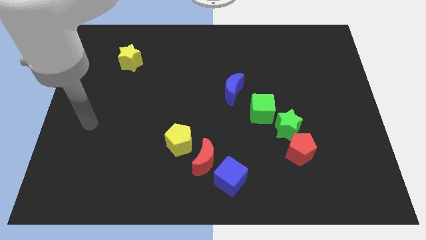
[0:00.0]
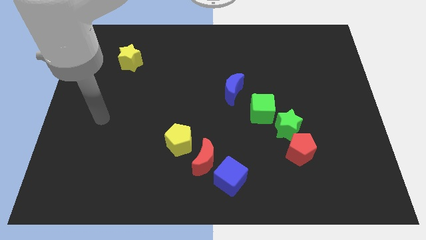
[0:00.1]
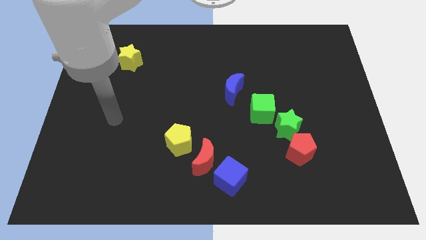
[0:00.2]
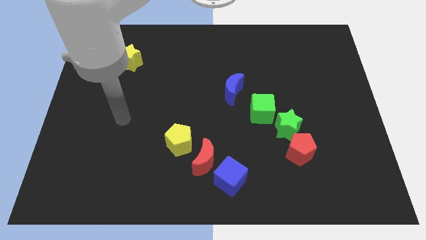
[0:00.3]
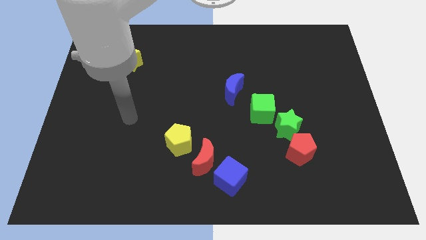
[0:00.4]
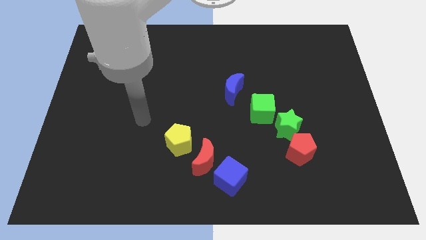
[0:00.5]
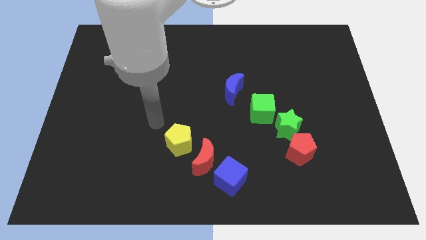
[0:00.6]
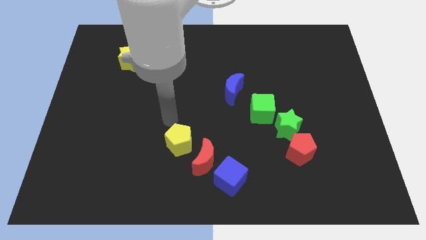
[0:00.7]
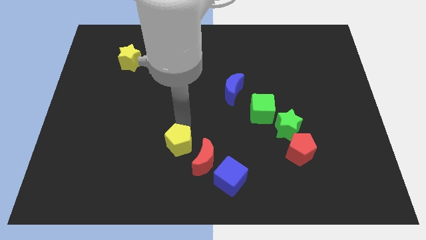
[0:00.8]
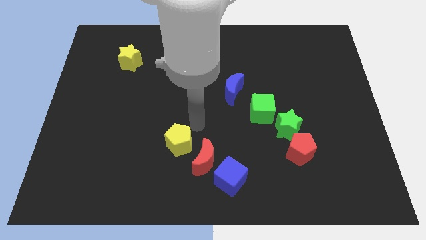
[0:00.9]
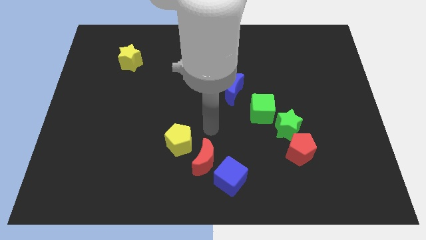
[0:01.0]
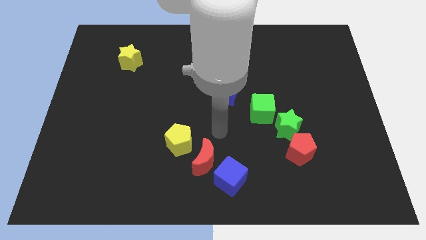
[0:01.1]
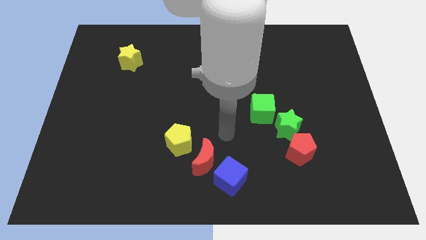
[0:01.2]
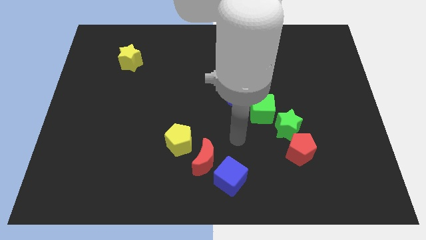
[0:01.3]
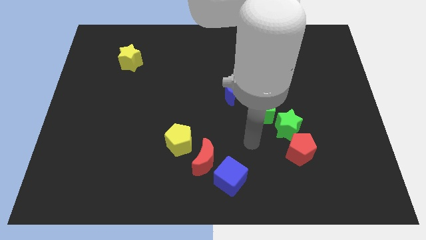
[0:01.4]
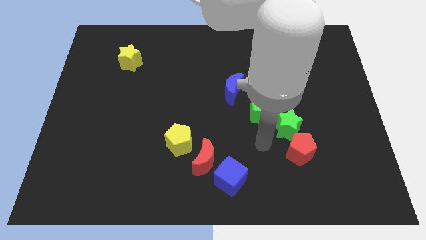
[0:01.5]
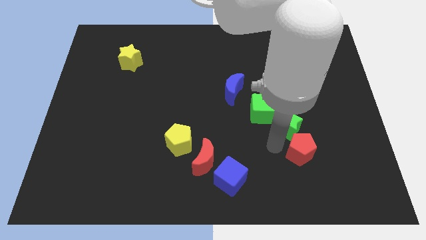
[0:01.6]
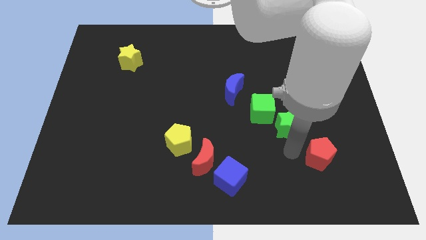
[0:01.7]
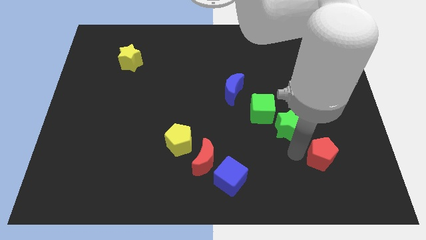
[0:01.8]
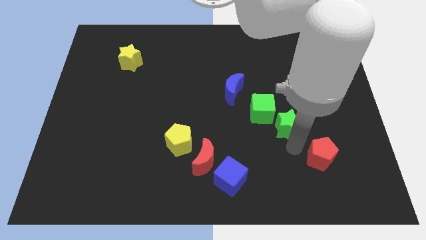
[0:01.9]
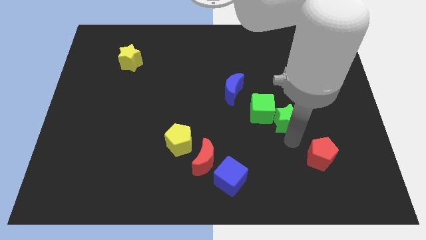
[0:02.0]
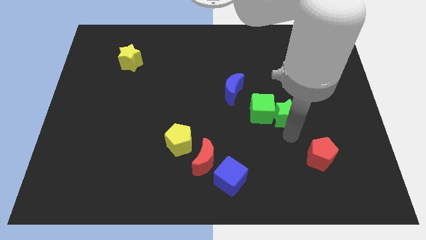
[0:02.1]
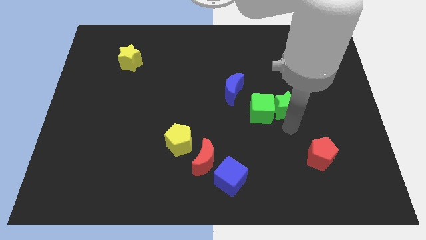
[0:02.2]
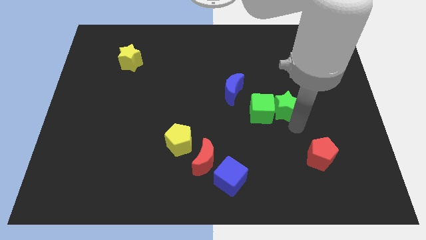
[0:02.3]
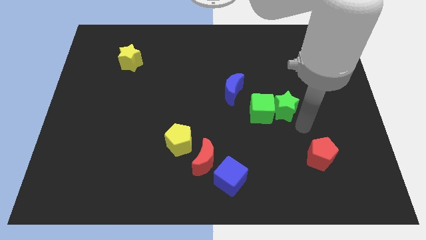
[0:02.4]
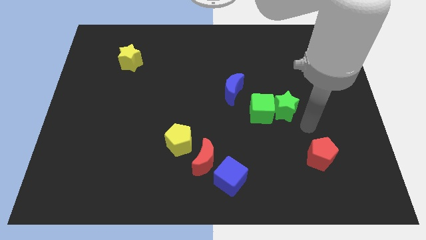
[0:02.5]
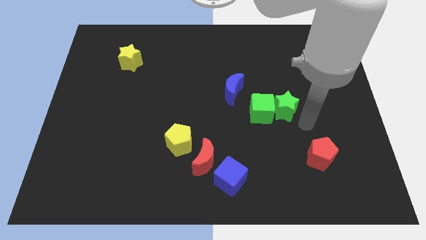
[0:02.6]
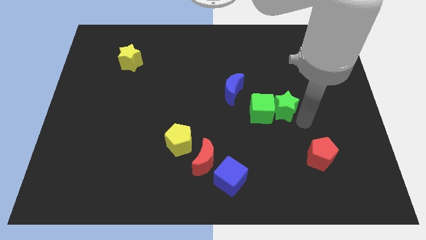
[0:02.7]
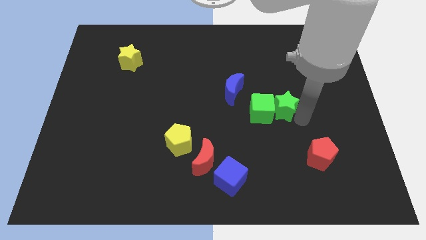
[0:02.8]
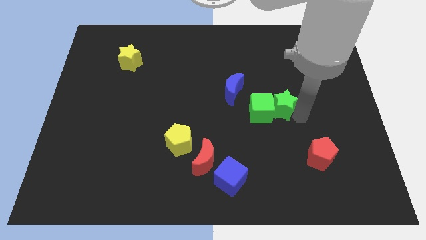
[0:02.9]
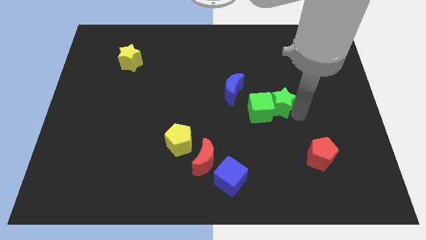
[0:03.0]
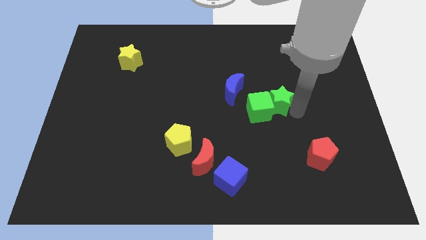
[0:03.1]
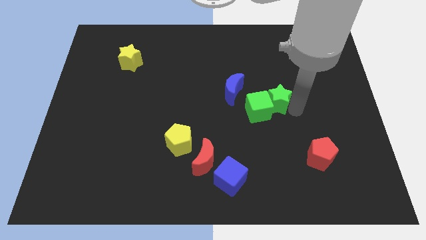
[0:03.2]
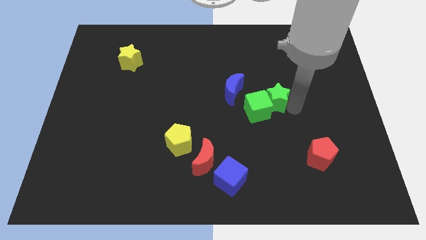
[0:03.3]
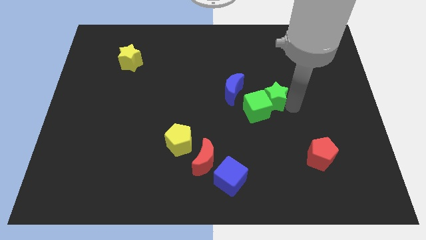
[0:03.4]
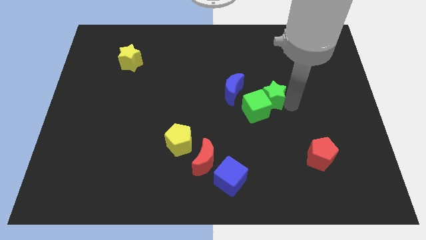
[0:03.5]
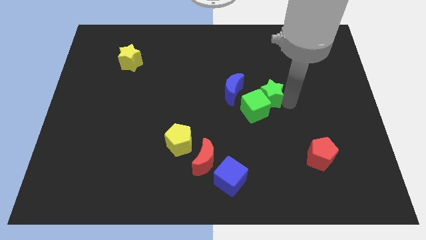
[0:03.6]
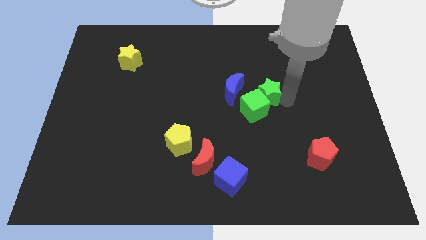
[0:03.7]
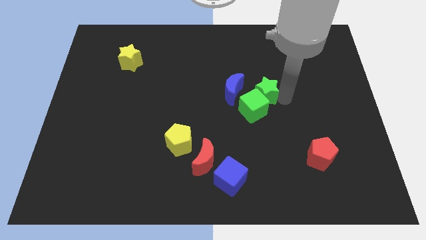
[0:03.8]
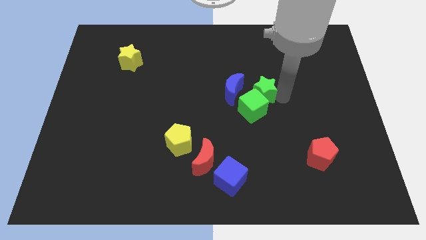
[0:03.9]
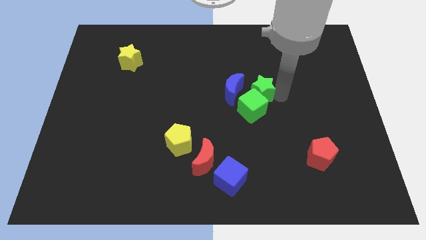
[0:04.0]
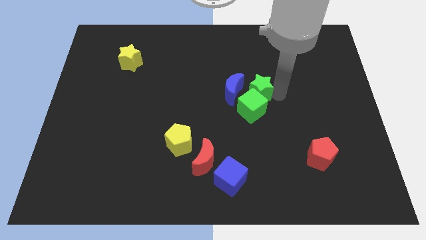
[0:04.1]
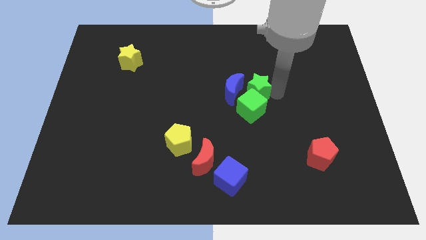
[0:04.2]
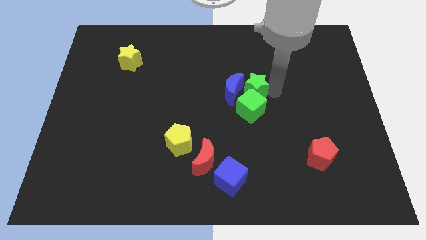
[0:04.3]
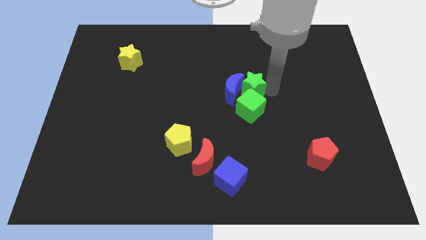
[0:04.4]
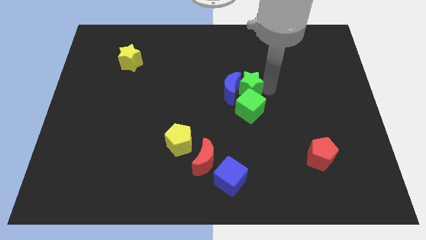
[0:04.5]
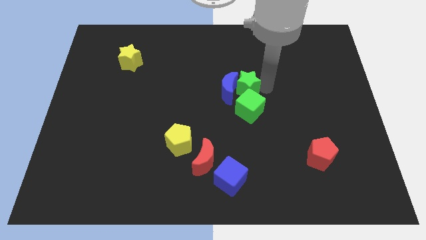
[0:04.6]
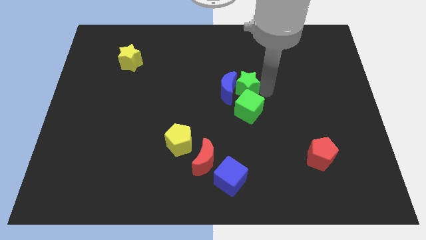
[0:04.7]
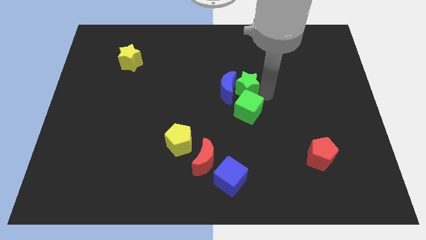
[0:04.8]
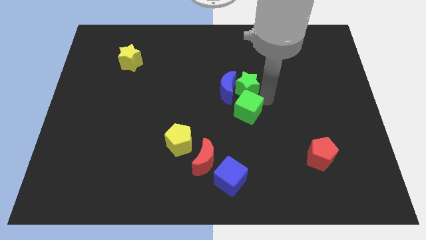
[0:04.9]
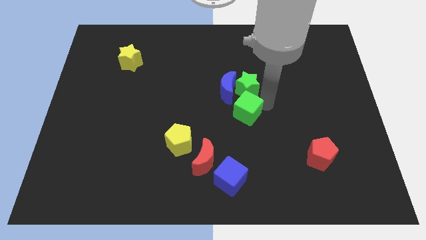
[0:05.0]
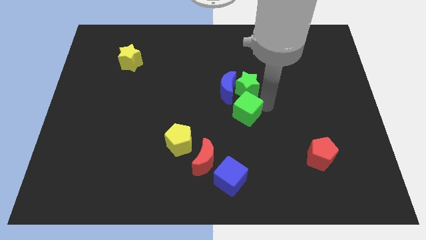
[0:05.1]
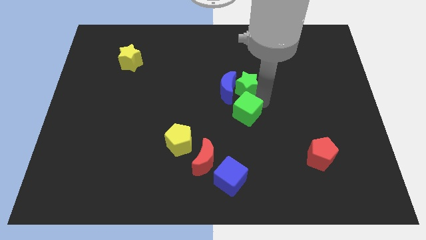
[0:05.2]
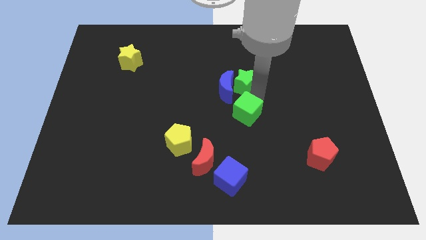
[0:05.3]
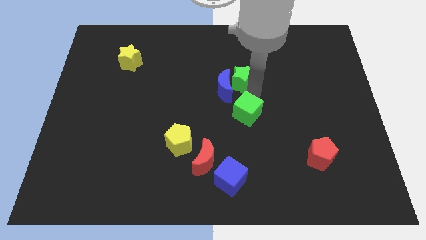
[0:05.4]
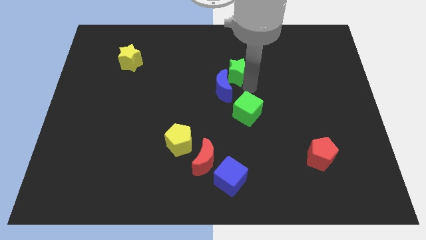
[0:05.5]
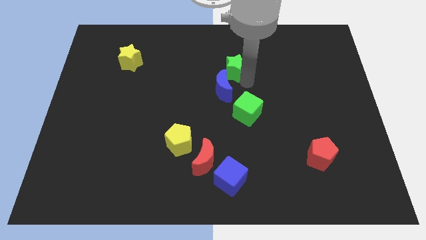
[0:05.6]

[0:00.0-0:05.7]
push the green star up and left diagonally

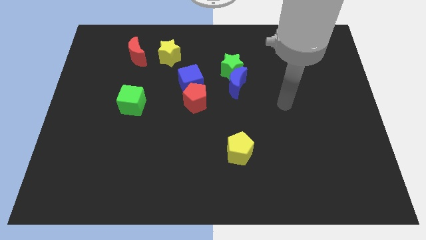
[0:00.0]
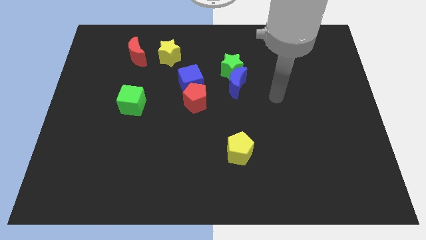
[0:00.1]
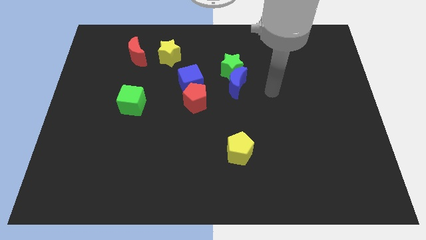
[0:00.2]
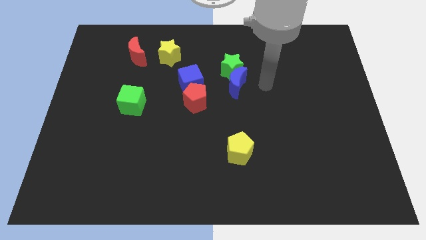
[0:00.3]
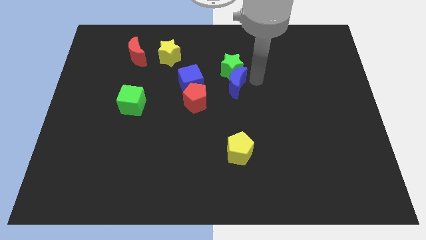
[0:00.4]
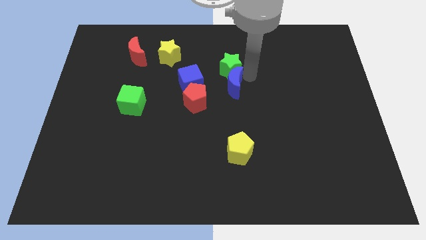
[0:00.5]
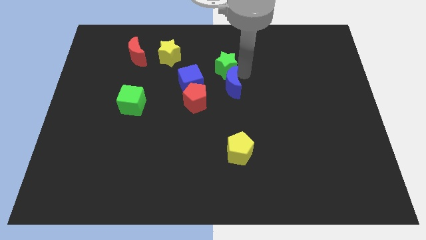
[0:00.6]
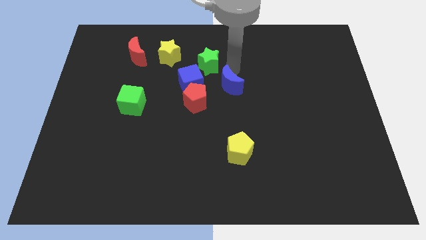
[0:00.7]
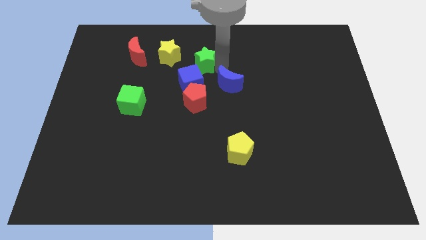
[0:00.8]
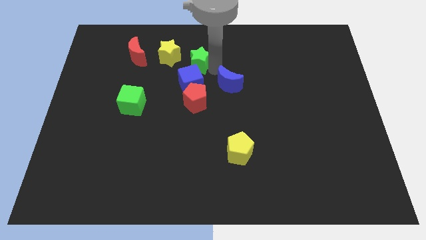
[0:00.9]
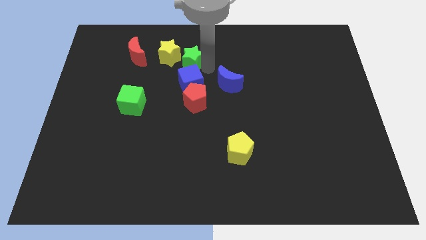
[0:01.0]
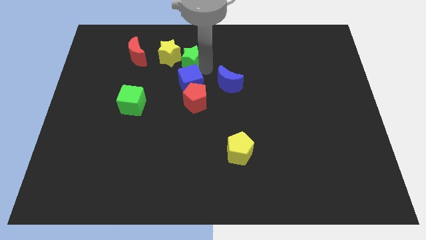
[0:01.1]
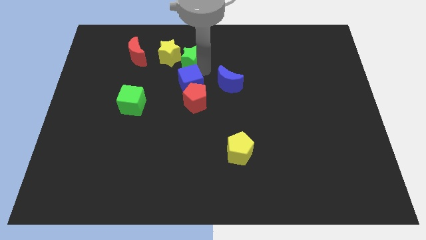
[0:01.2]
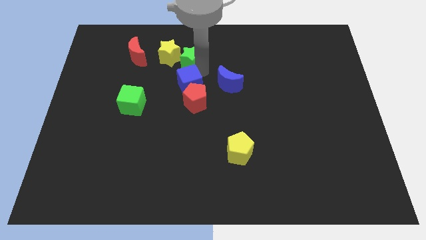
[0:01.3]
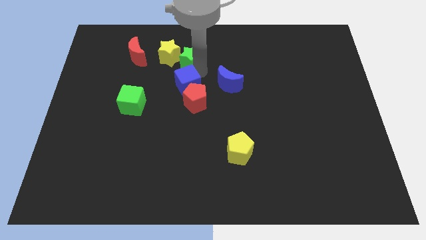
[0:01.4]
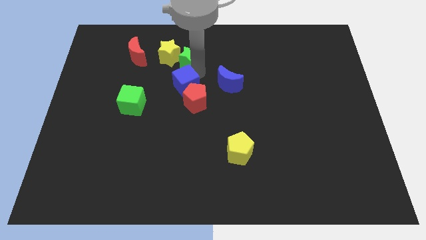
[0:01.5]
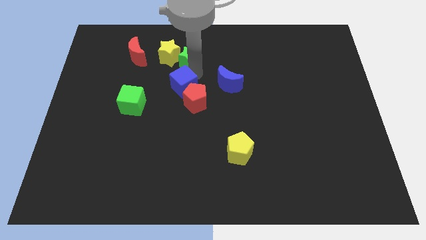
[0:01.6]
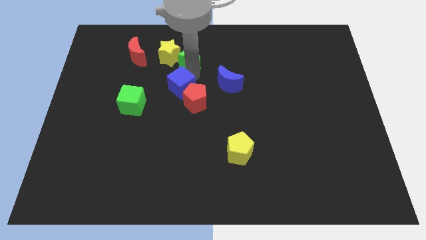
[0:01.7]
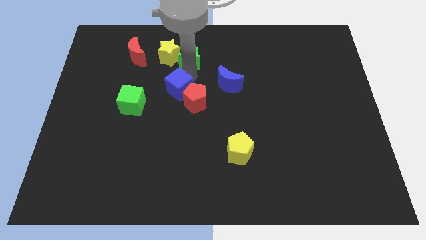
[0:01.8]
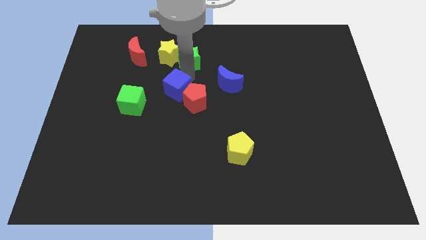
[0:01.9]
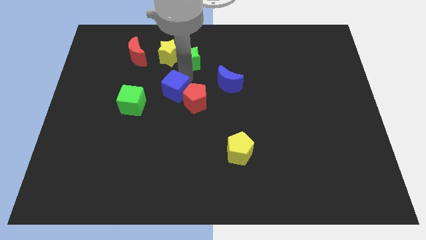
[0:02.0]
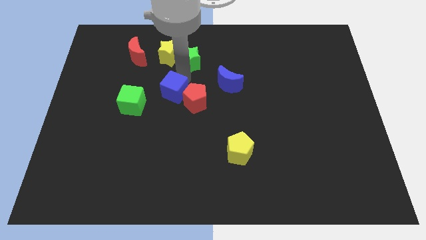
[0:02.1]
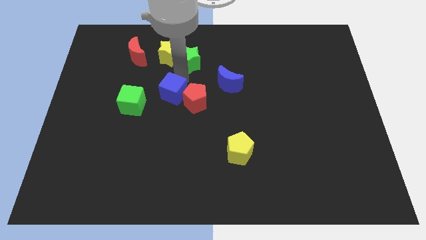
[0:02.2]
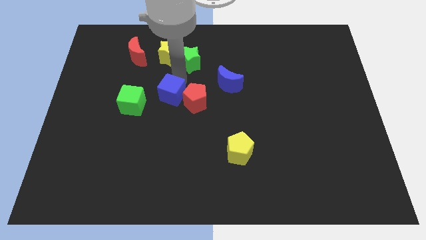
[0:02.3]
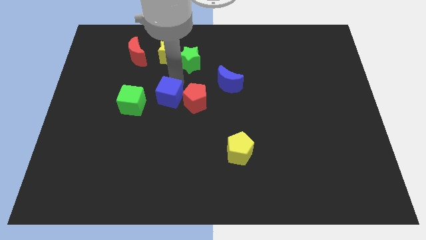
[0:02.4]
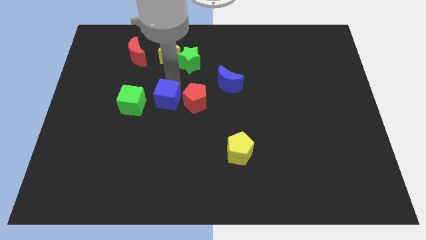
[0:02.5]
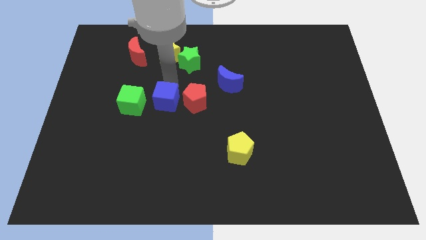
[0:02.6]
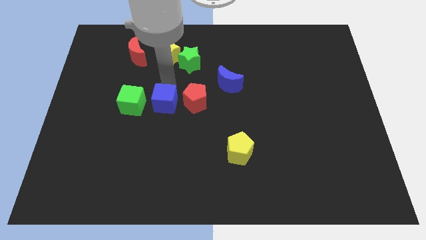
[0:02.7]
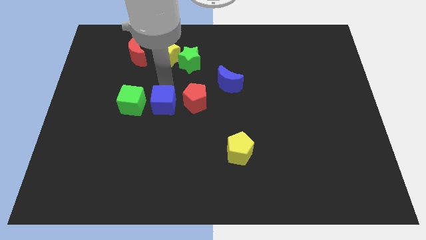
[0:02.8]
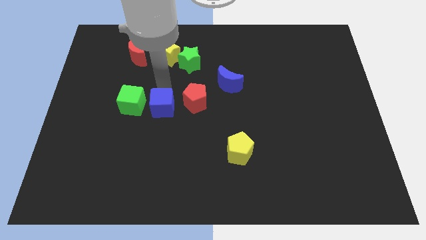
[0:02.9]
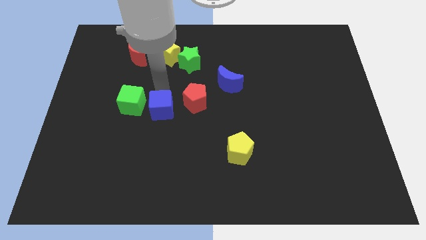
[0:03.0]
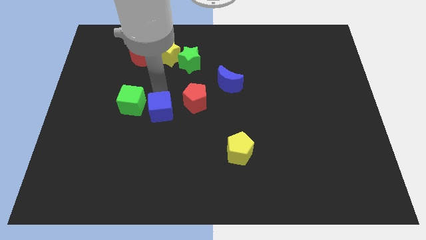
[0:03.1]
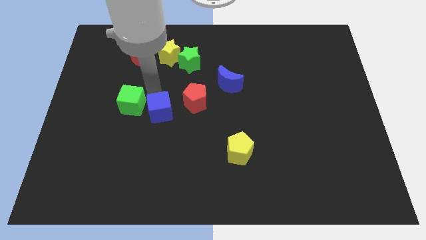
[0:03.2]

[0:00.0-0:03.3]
slightly push the blue cube downwards
